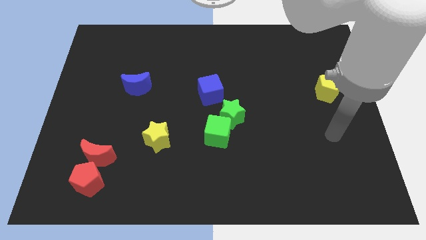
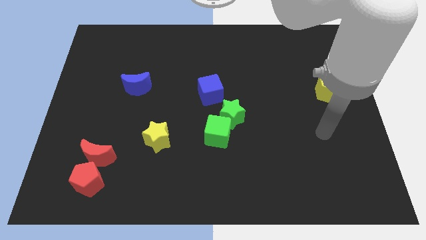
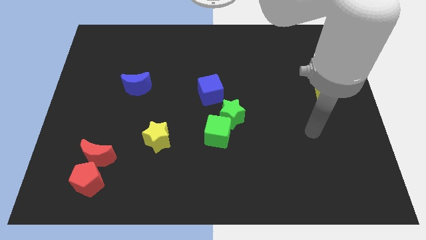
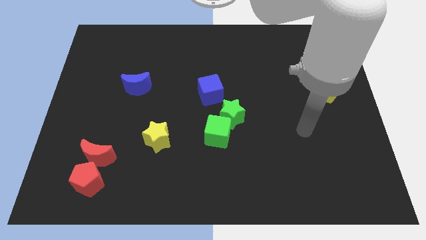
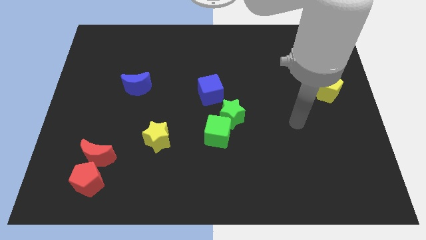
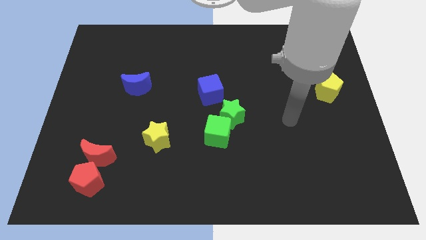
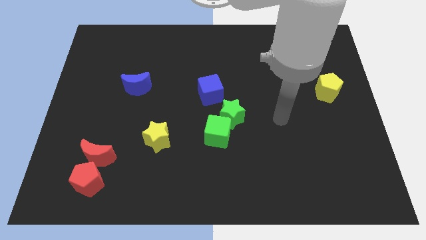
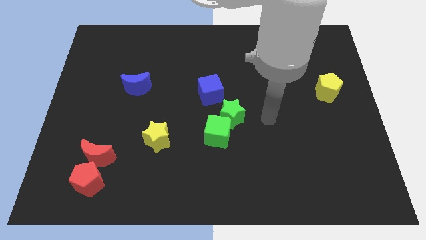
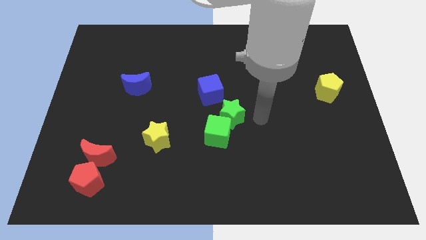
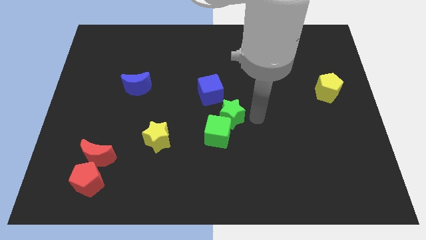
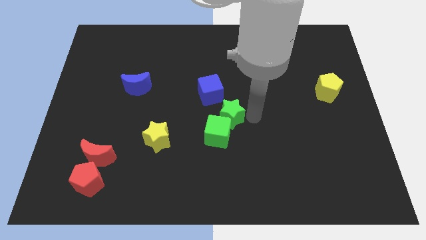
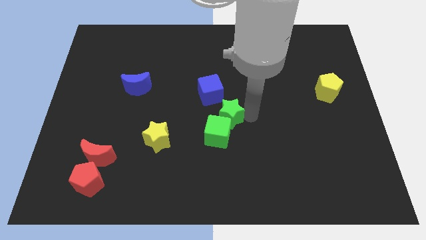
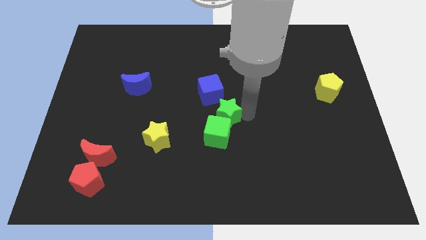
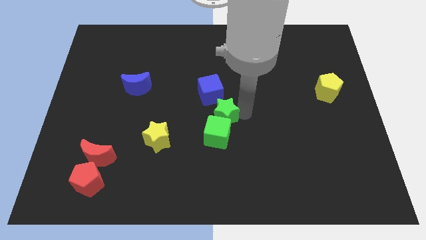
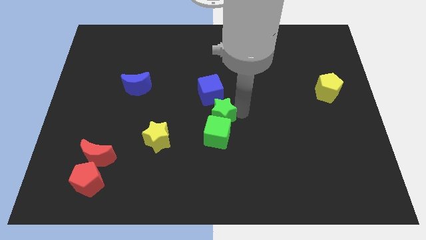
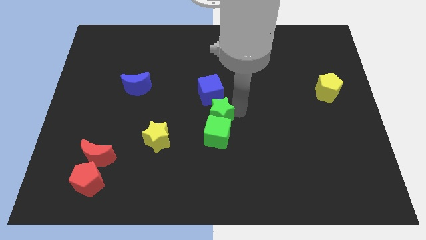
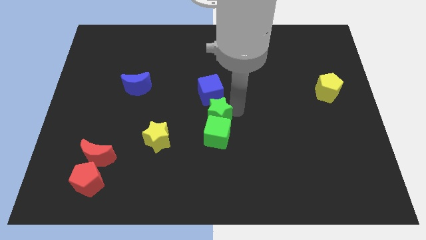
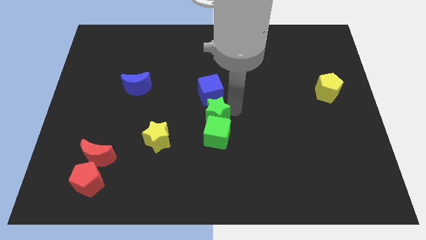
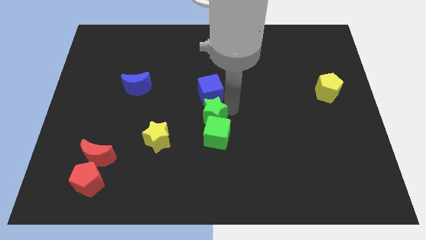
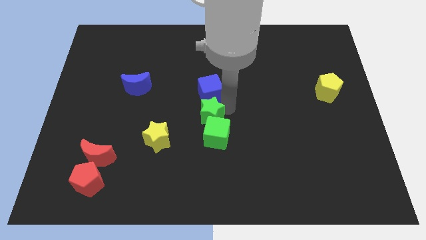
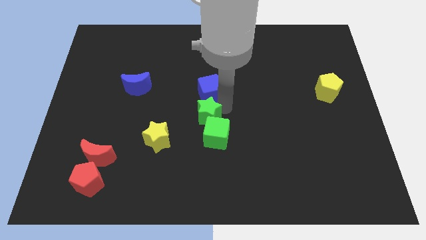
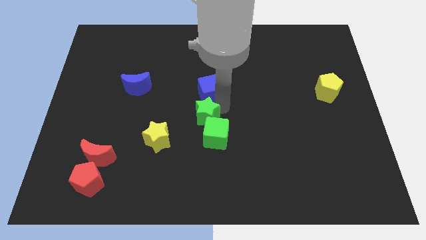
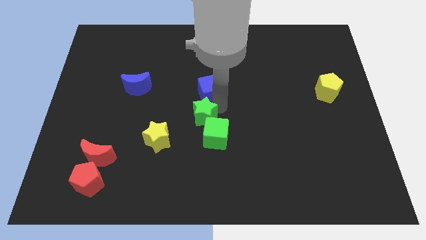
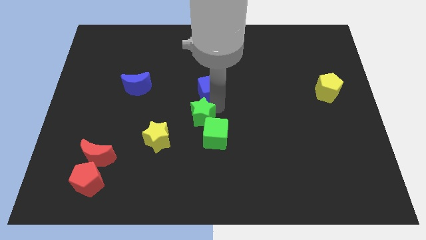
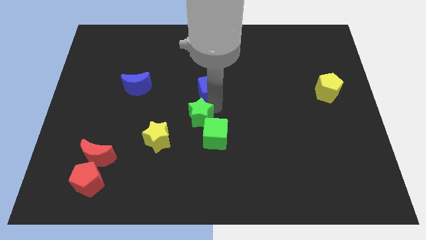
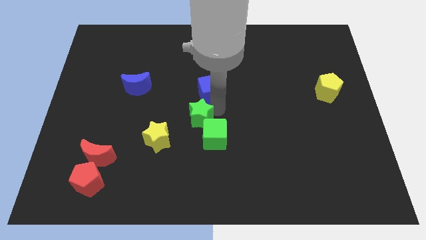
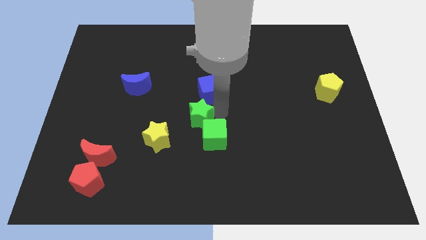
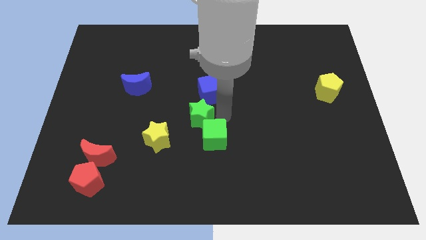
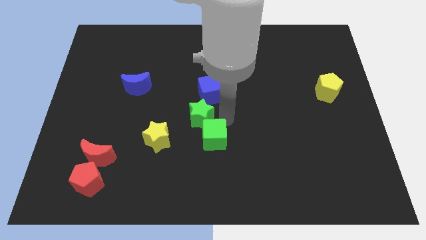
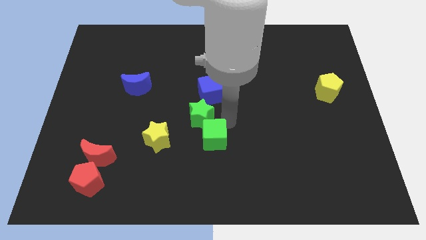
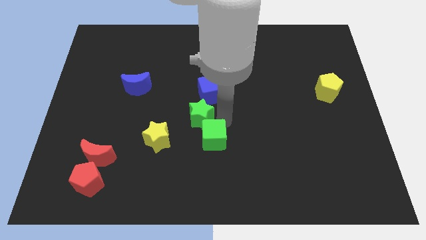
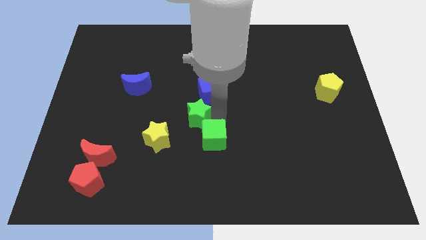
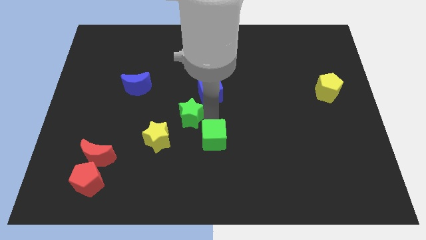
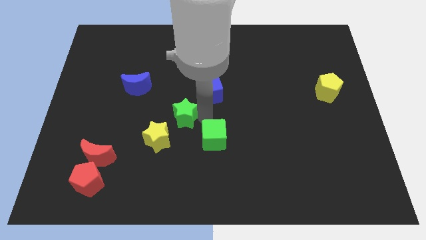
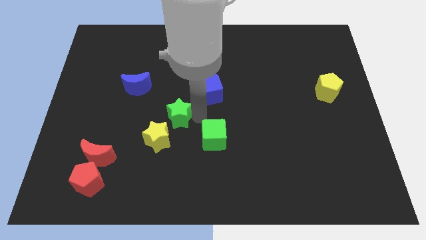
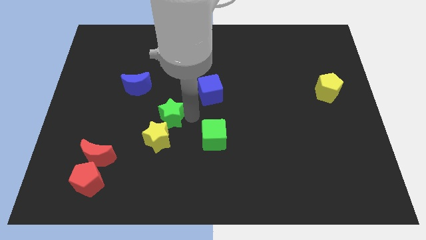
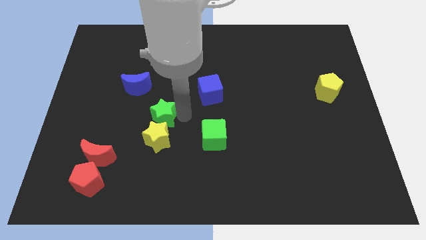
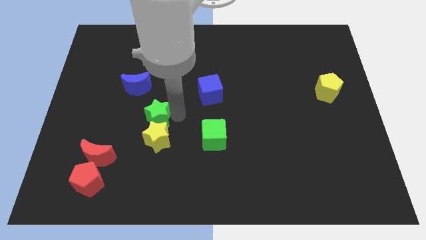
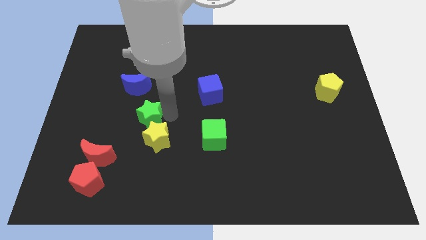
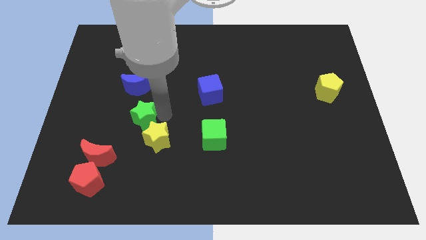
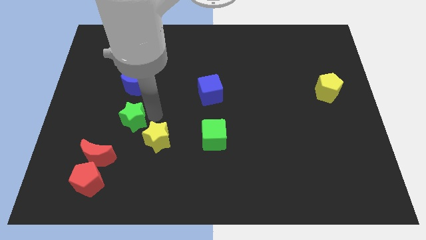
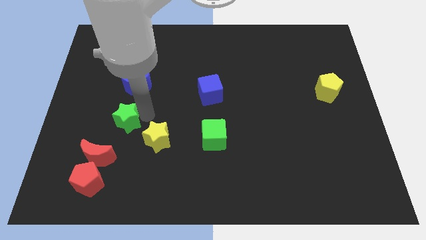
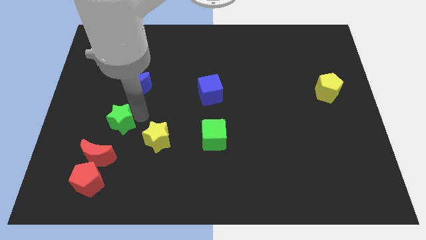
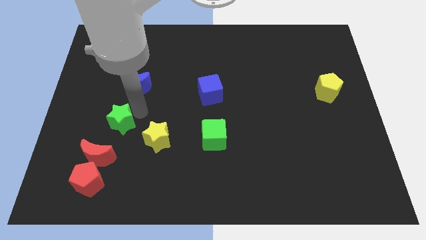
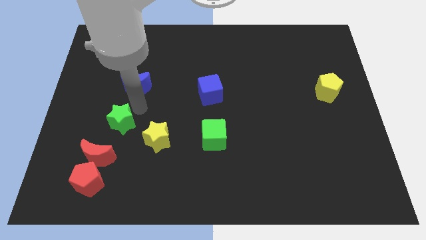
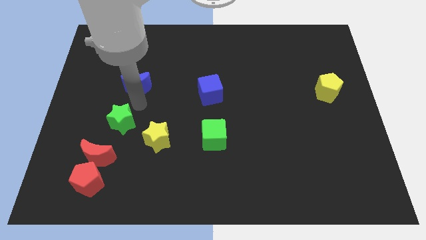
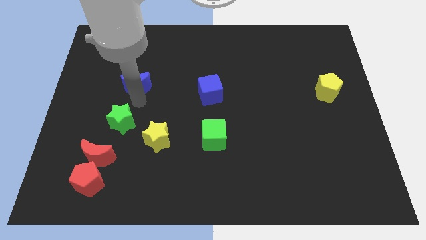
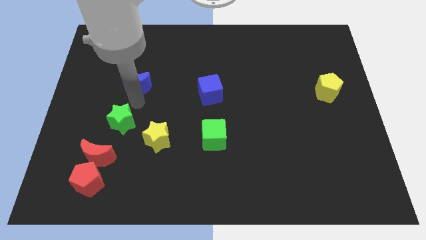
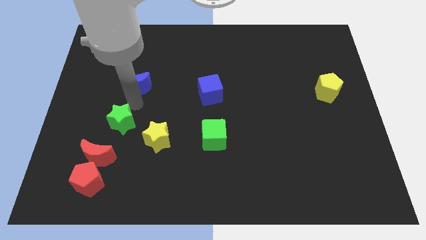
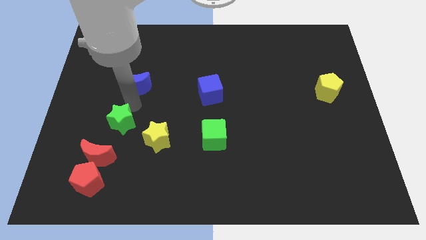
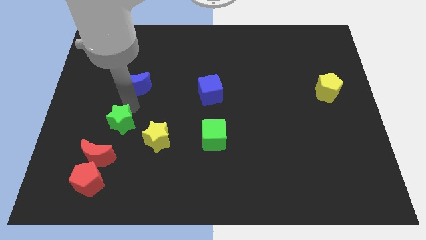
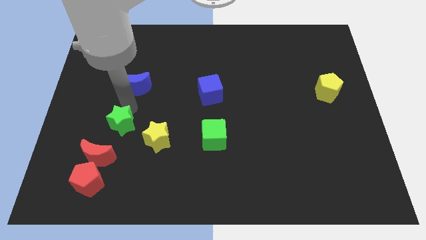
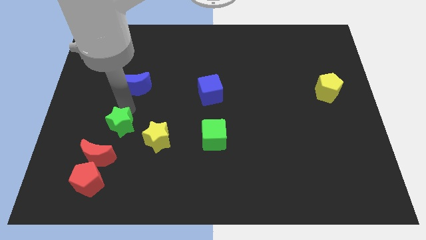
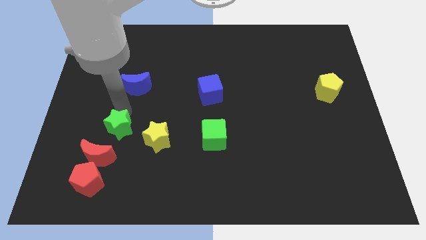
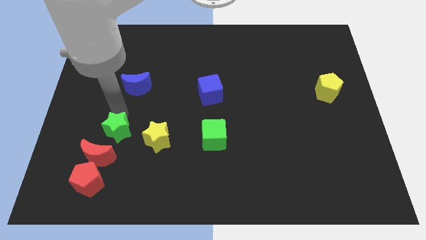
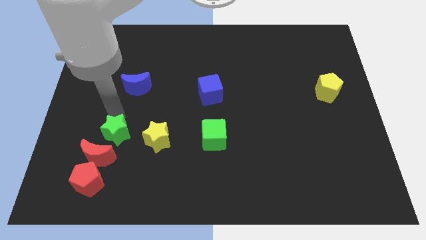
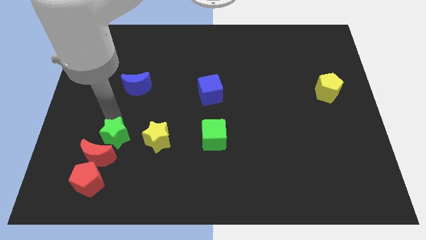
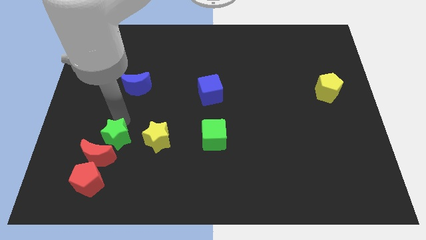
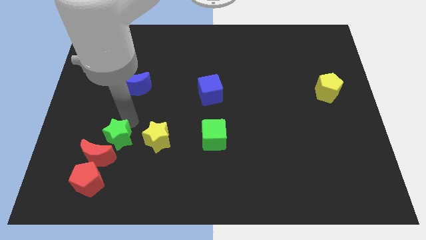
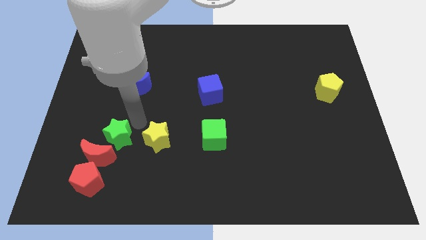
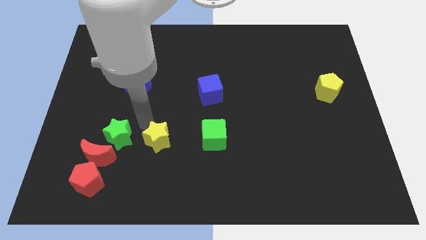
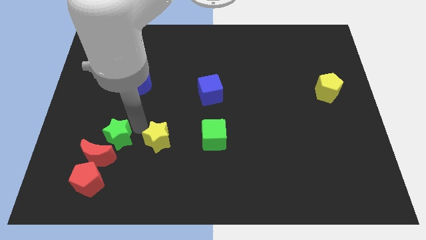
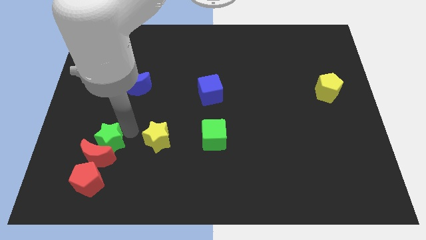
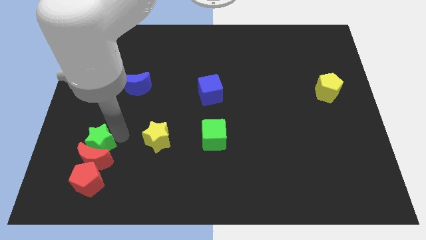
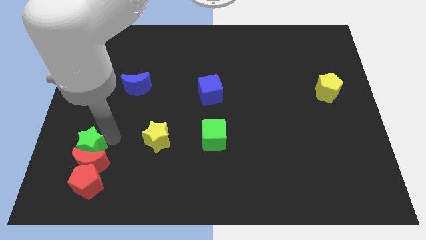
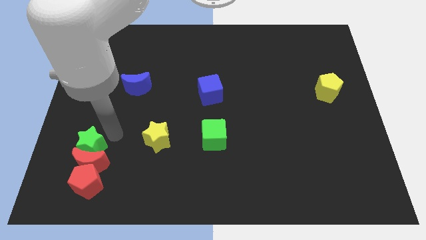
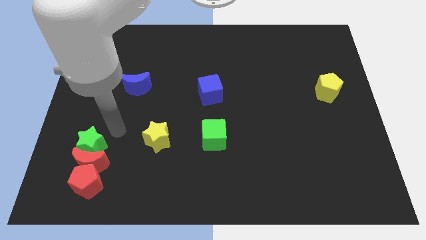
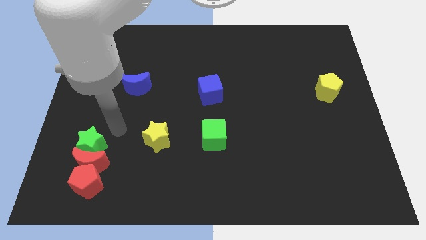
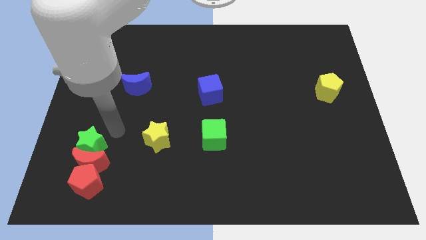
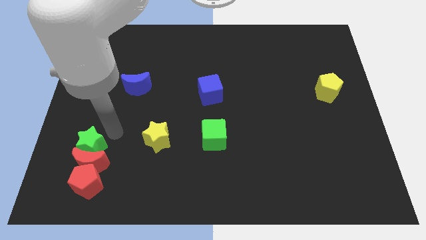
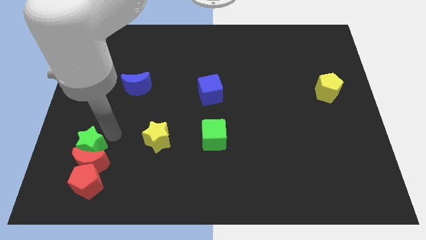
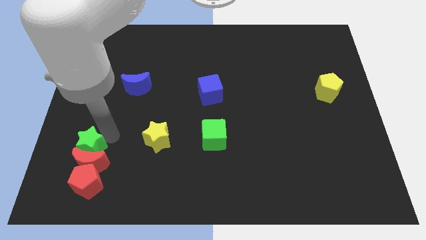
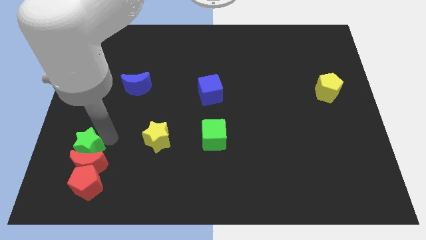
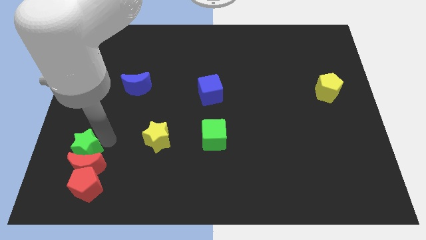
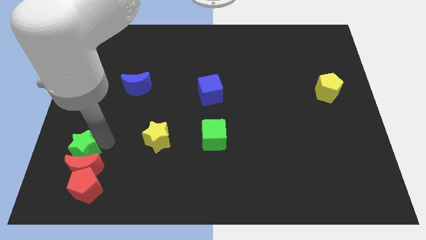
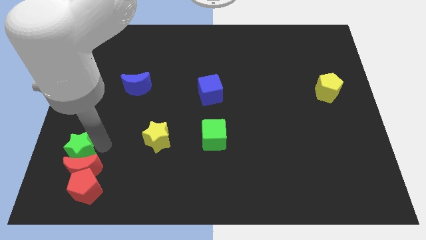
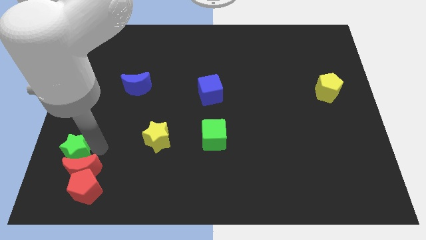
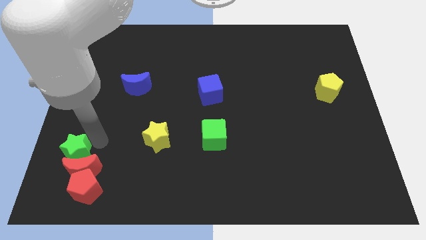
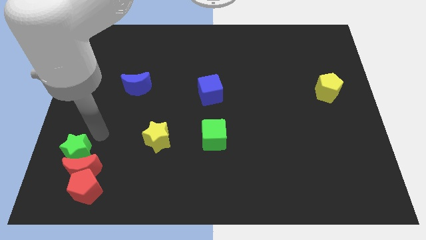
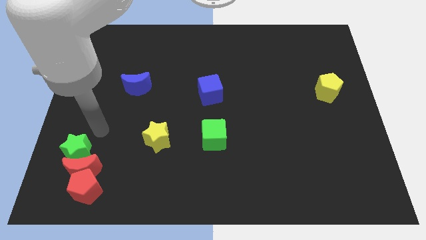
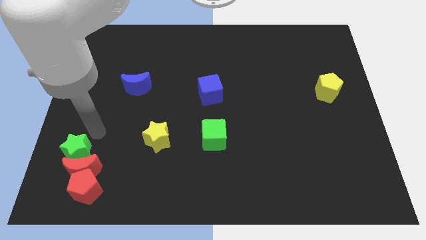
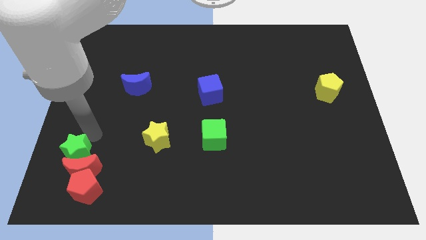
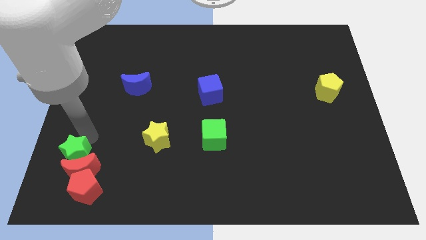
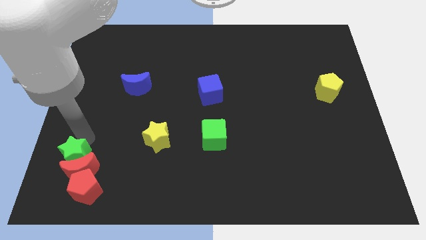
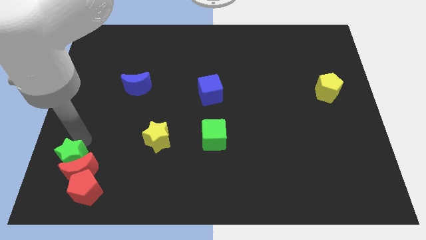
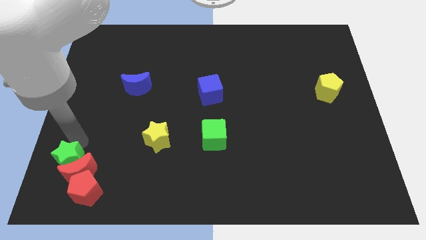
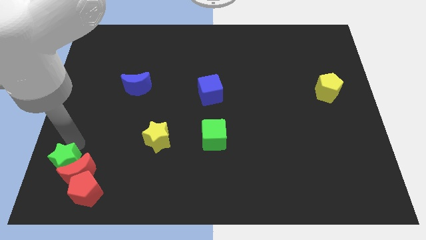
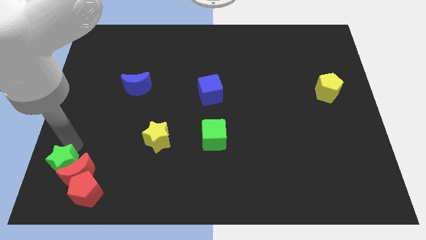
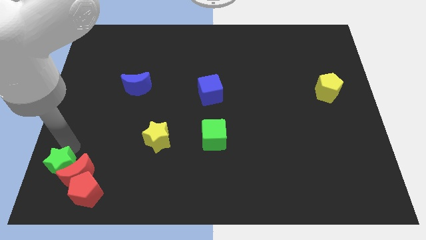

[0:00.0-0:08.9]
push the green star to the bottom left
